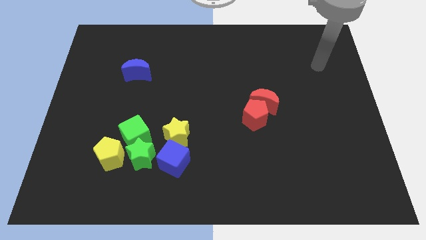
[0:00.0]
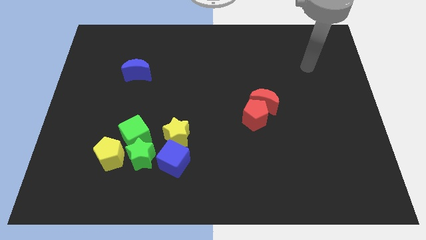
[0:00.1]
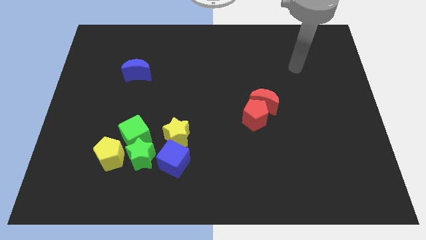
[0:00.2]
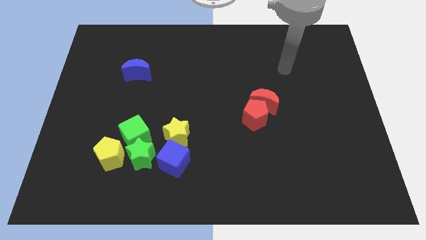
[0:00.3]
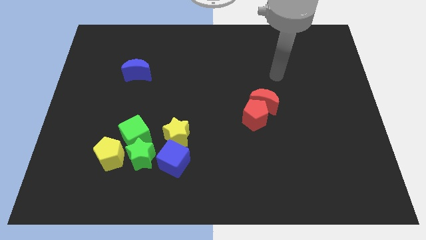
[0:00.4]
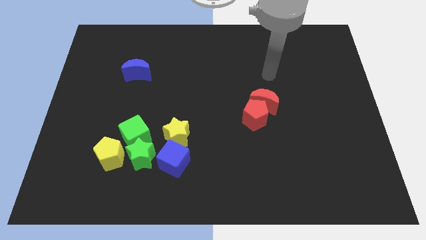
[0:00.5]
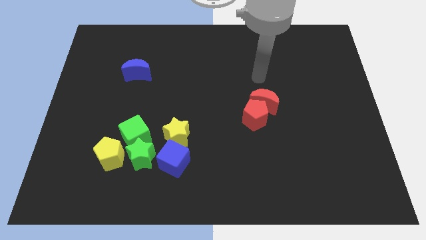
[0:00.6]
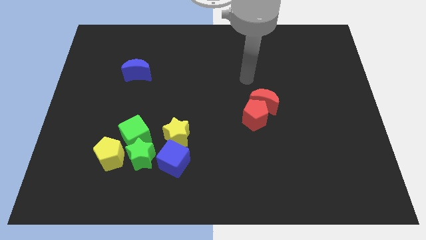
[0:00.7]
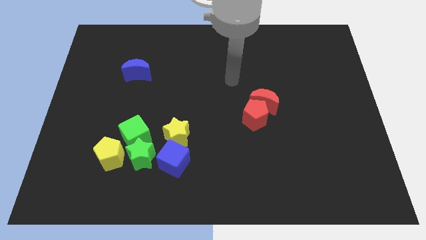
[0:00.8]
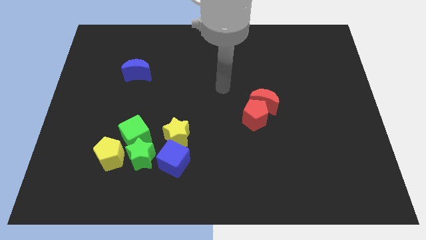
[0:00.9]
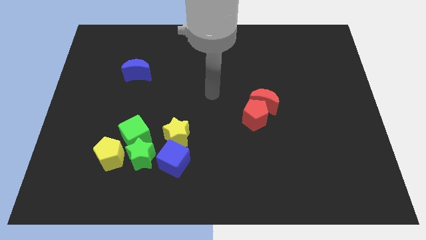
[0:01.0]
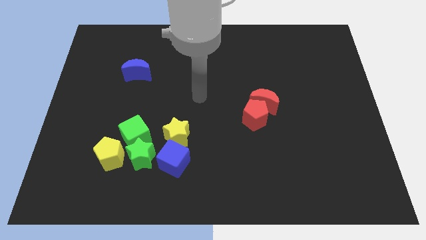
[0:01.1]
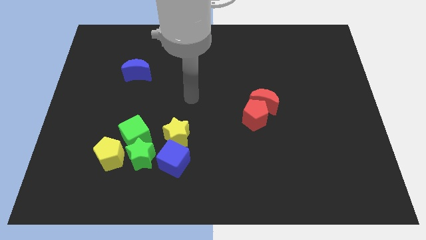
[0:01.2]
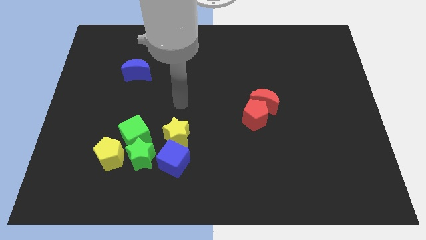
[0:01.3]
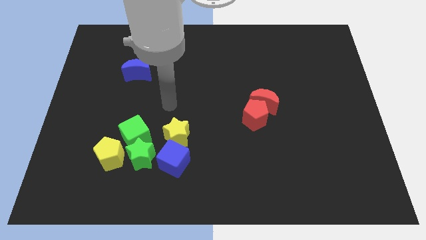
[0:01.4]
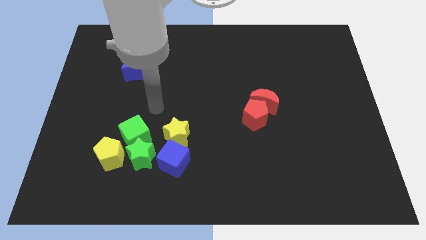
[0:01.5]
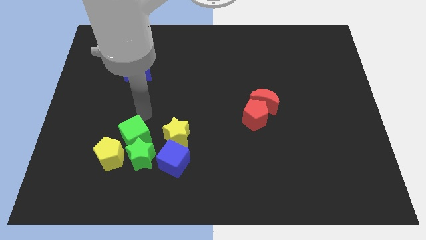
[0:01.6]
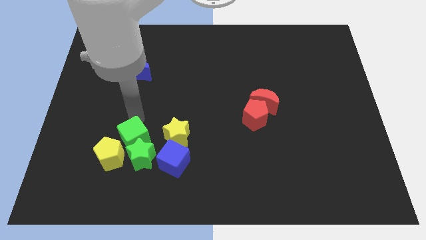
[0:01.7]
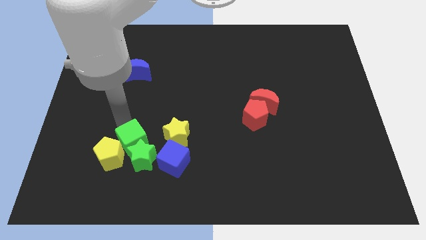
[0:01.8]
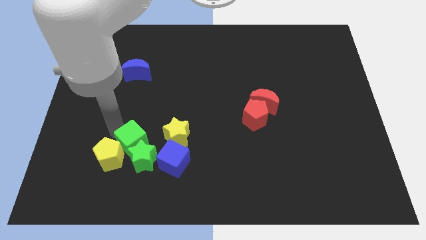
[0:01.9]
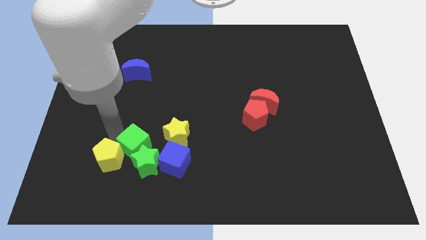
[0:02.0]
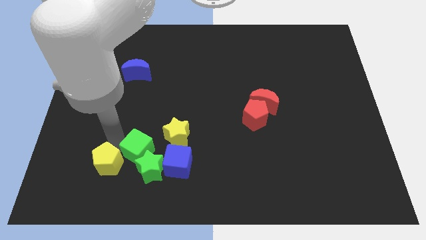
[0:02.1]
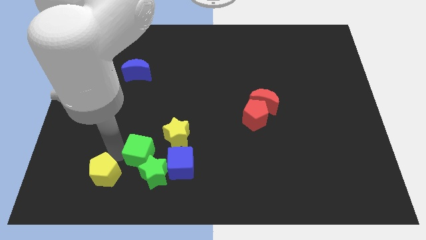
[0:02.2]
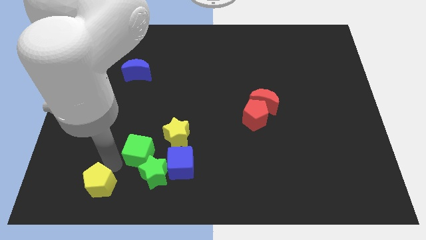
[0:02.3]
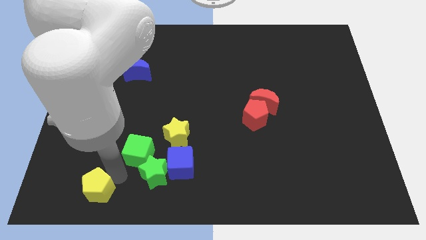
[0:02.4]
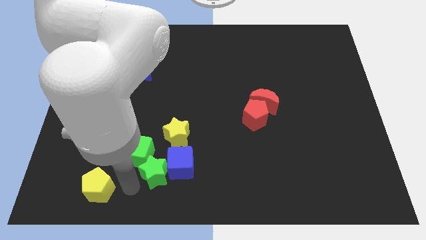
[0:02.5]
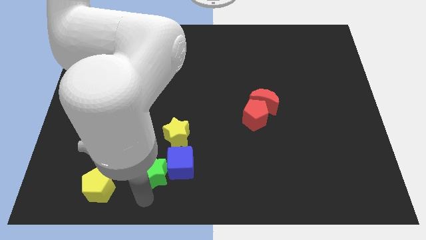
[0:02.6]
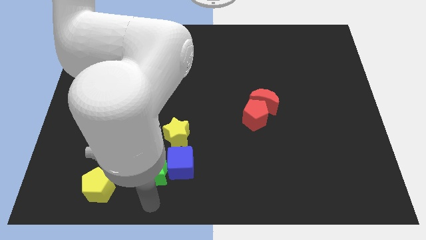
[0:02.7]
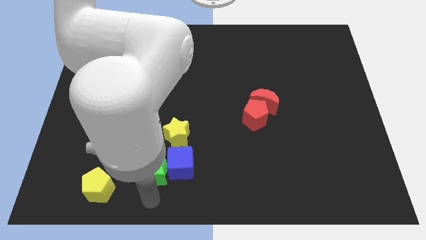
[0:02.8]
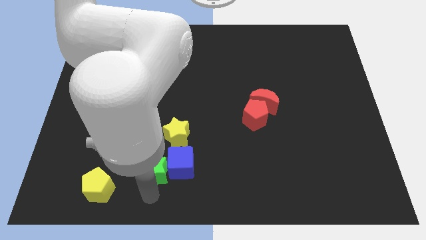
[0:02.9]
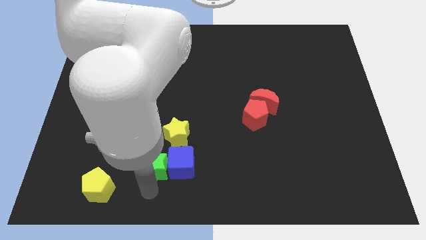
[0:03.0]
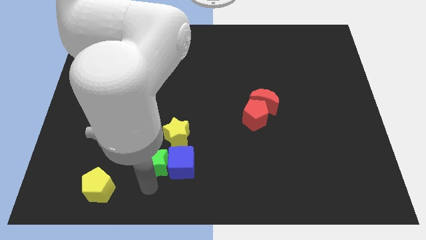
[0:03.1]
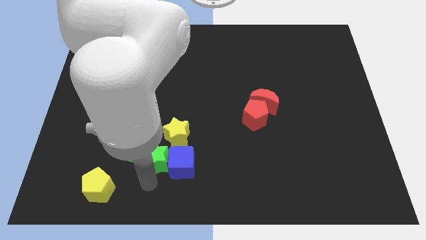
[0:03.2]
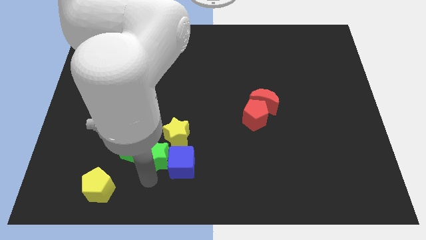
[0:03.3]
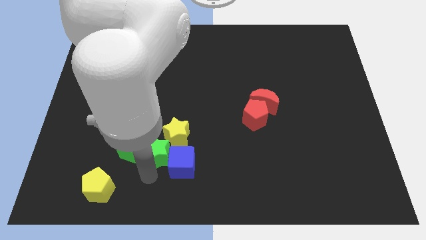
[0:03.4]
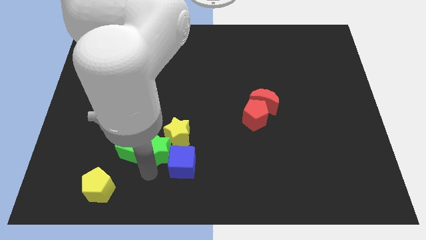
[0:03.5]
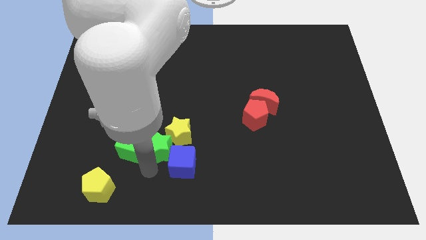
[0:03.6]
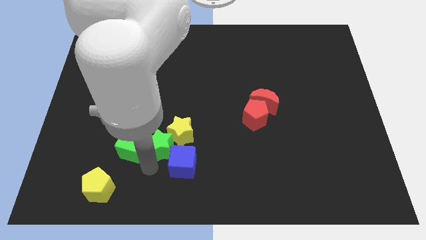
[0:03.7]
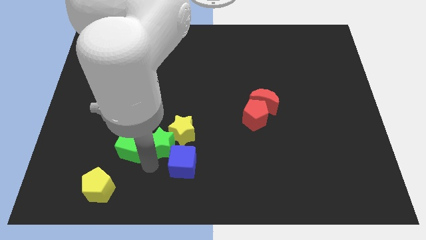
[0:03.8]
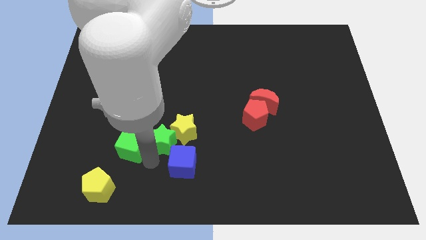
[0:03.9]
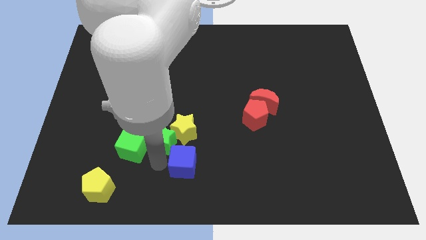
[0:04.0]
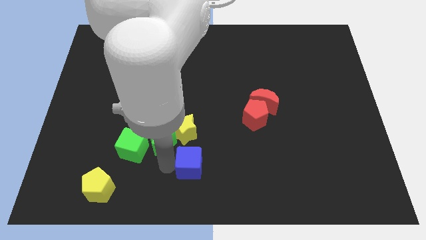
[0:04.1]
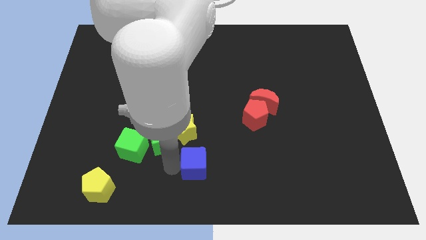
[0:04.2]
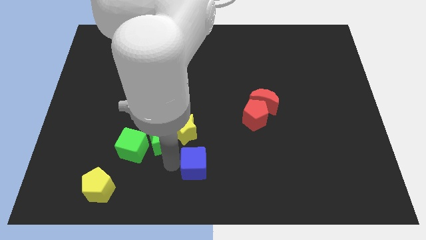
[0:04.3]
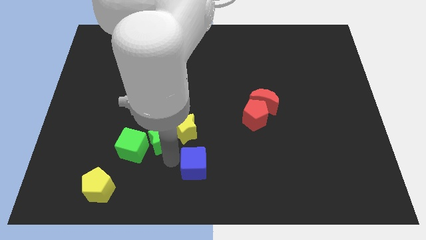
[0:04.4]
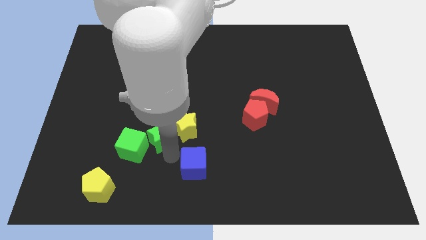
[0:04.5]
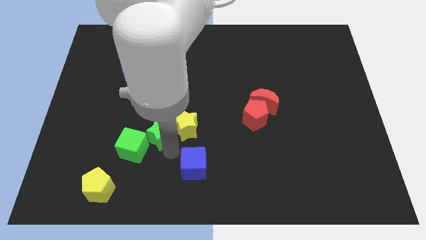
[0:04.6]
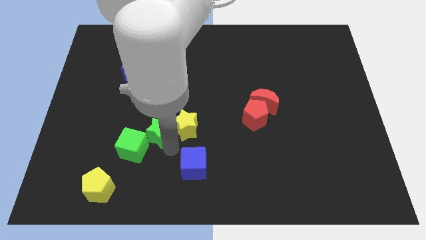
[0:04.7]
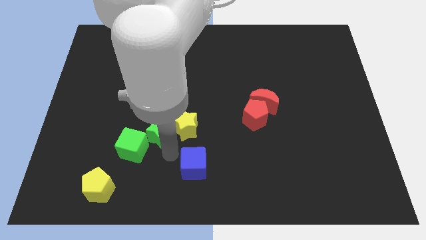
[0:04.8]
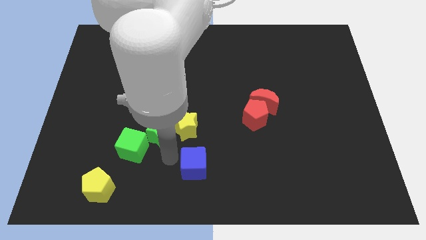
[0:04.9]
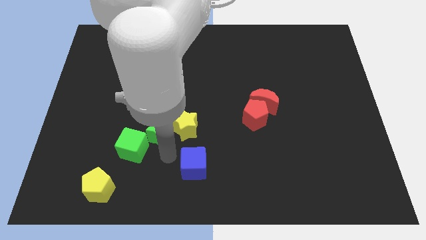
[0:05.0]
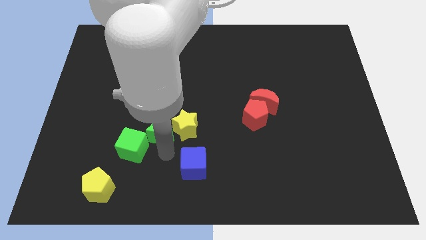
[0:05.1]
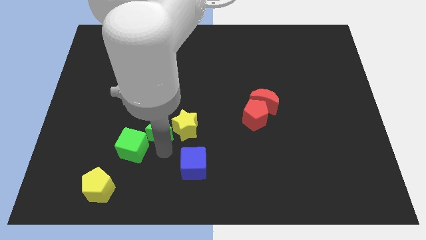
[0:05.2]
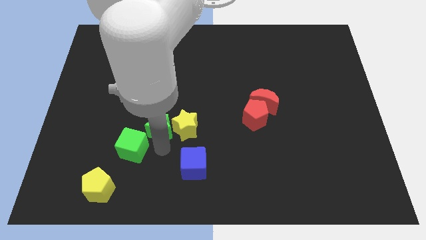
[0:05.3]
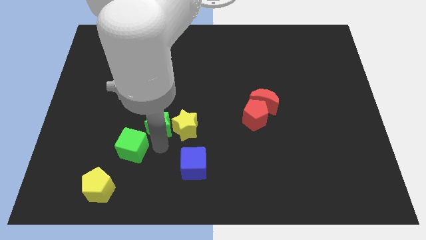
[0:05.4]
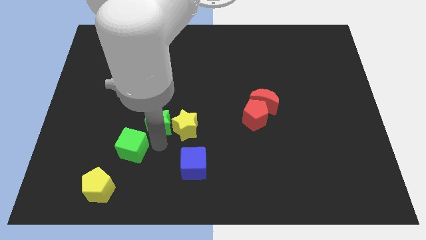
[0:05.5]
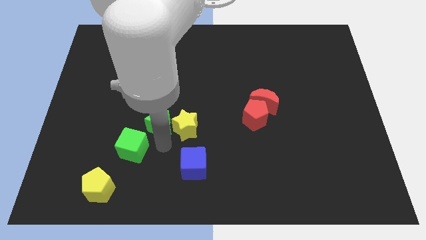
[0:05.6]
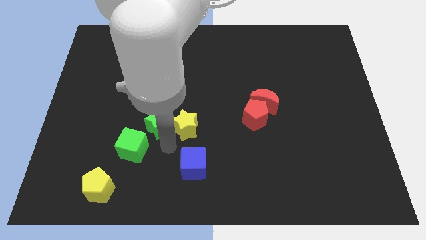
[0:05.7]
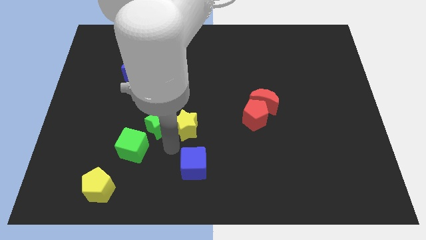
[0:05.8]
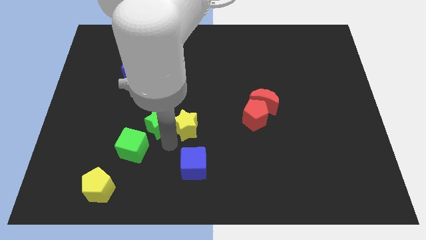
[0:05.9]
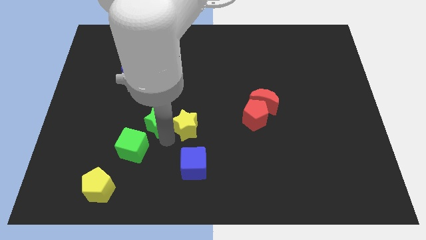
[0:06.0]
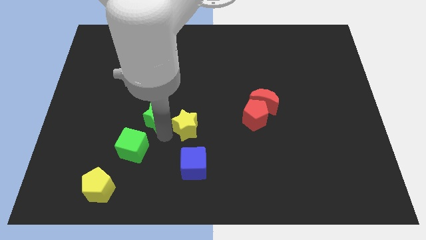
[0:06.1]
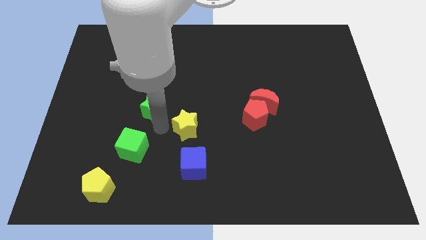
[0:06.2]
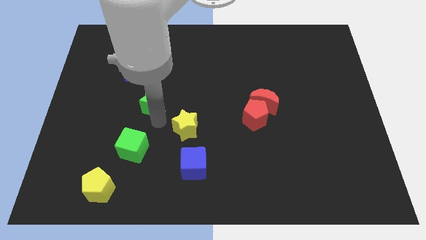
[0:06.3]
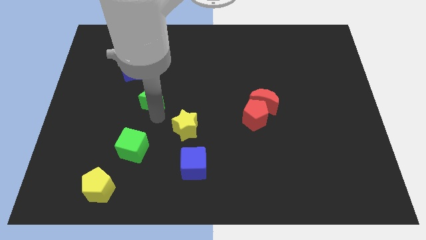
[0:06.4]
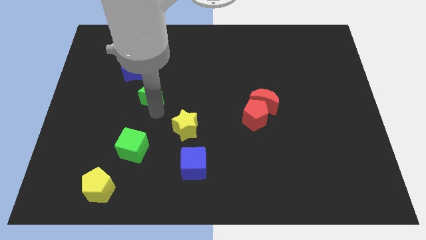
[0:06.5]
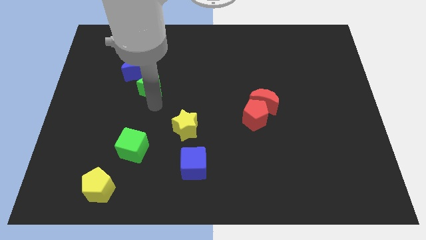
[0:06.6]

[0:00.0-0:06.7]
move the green star next to the blue moon
